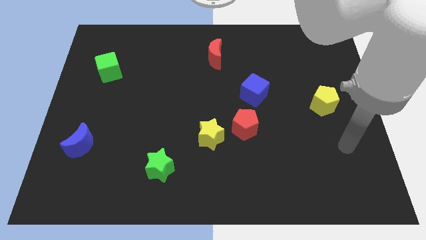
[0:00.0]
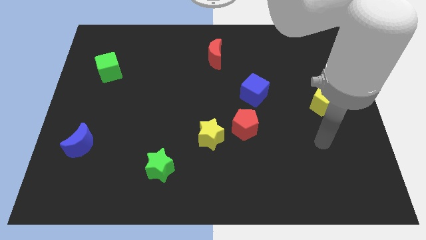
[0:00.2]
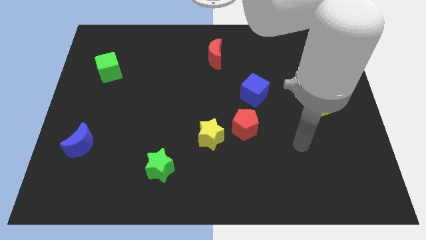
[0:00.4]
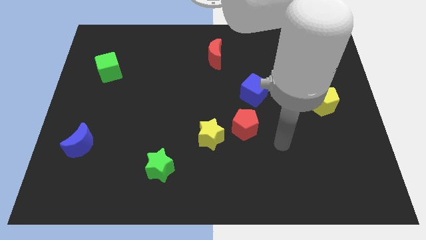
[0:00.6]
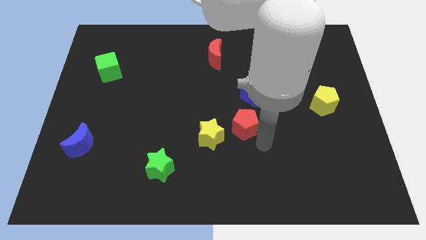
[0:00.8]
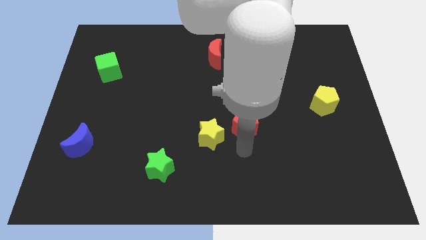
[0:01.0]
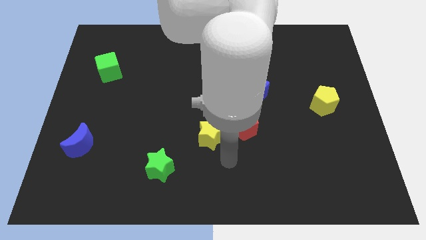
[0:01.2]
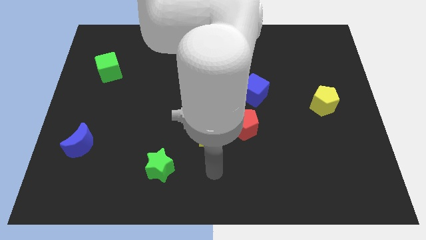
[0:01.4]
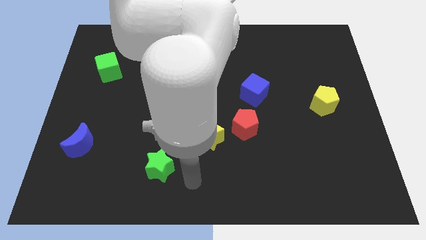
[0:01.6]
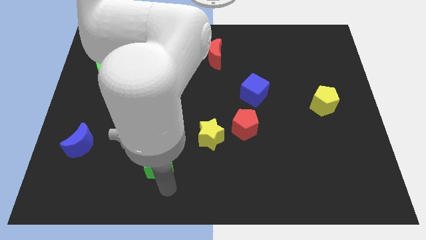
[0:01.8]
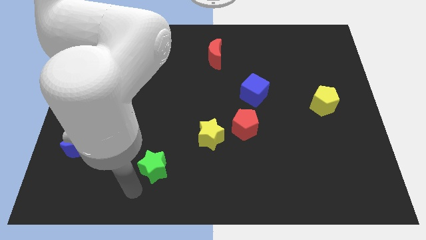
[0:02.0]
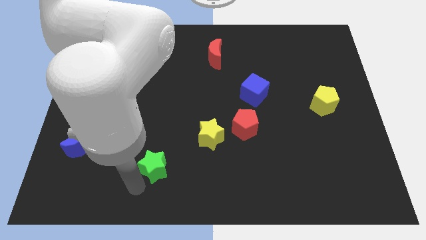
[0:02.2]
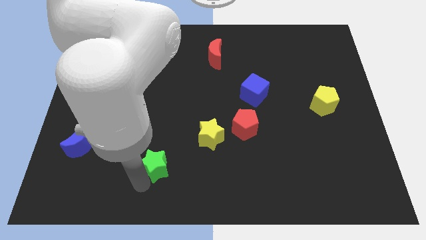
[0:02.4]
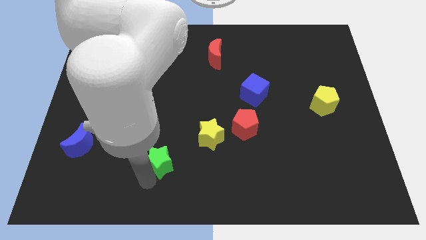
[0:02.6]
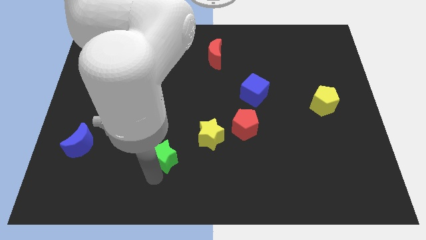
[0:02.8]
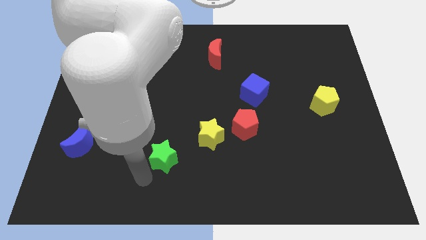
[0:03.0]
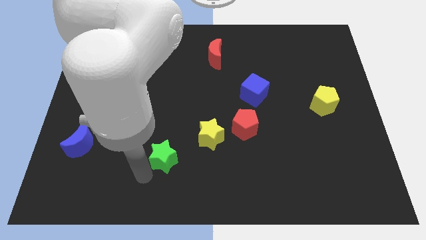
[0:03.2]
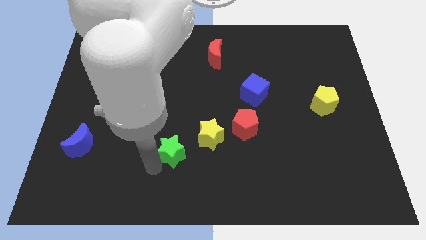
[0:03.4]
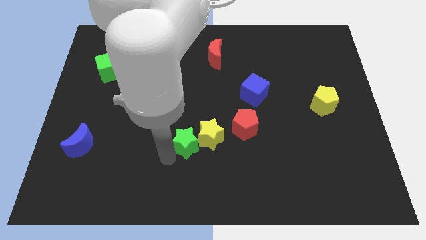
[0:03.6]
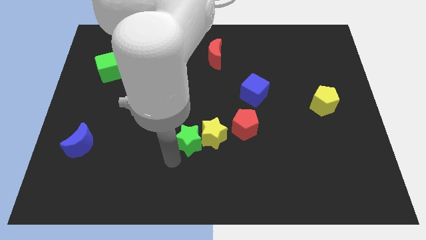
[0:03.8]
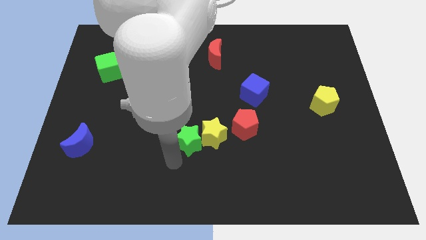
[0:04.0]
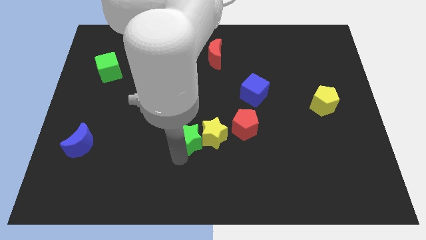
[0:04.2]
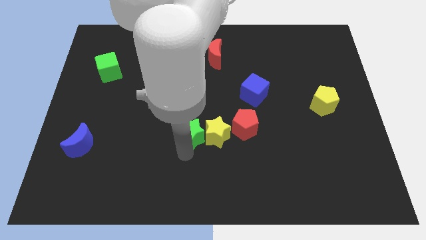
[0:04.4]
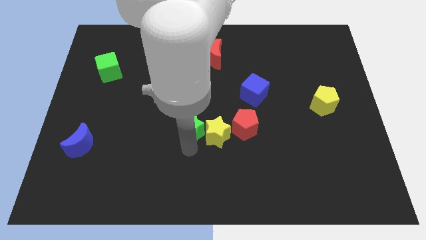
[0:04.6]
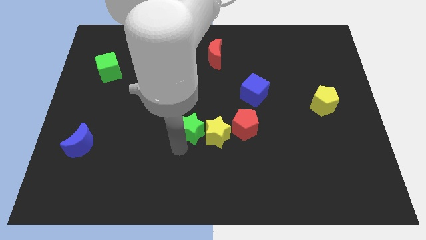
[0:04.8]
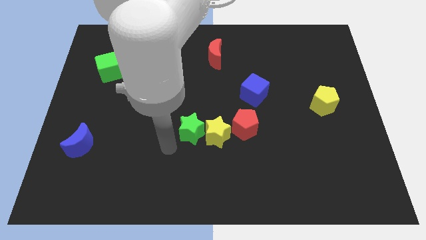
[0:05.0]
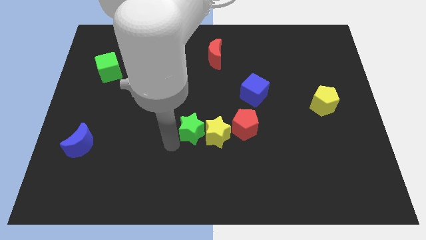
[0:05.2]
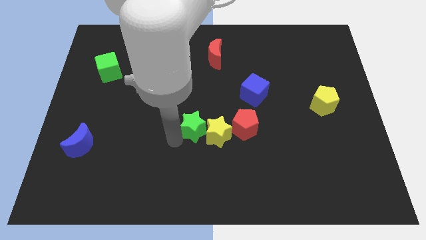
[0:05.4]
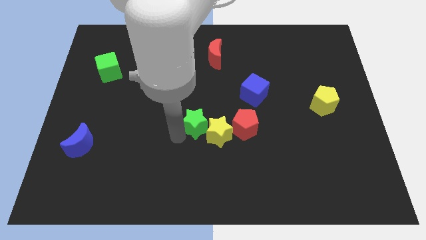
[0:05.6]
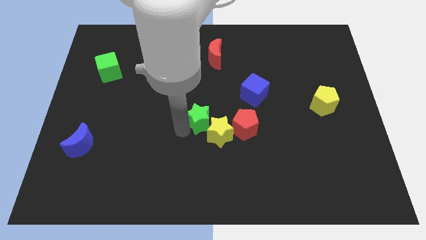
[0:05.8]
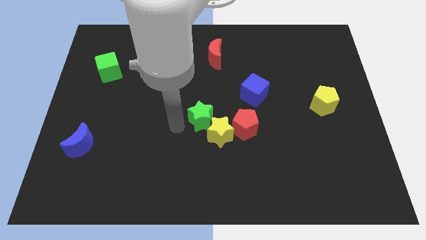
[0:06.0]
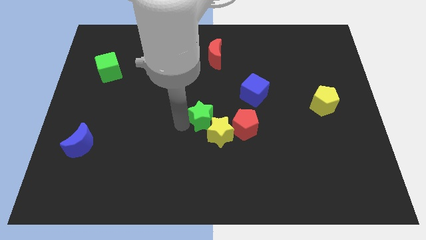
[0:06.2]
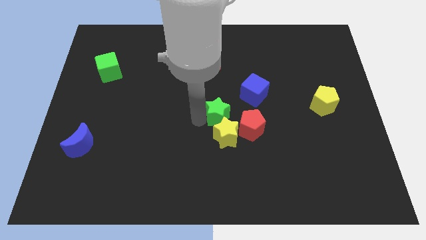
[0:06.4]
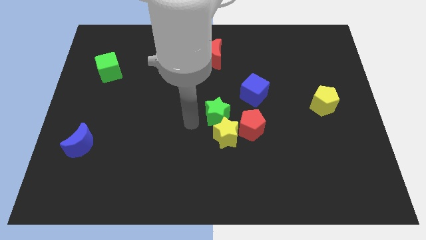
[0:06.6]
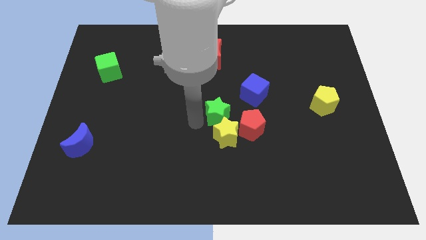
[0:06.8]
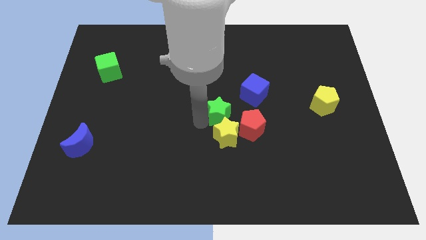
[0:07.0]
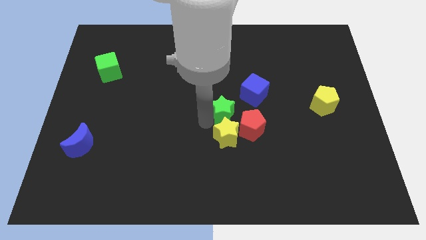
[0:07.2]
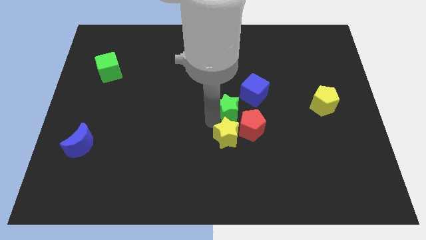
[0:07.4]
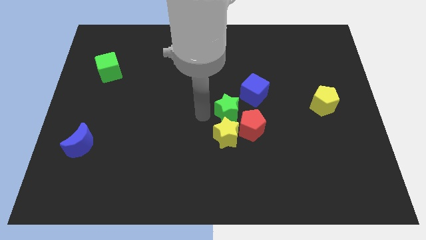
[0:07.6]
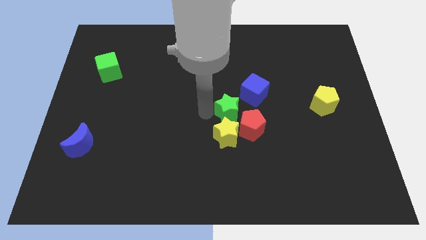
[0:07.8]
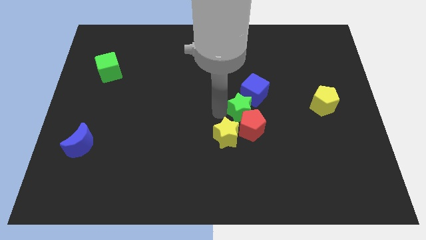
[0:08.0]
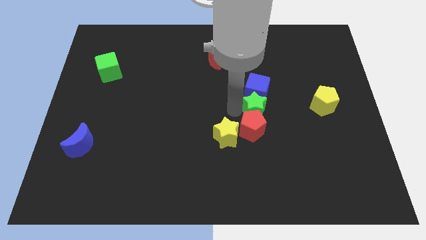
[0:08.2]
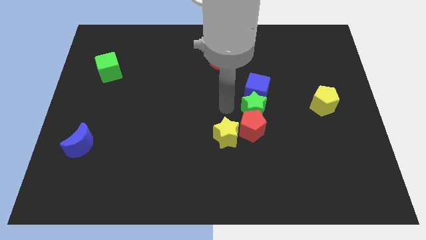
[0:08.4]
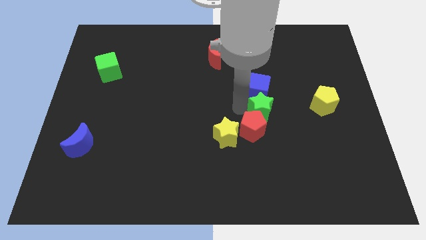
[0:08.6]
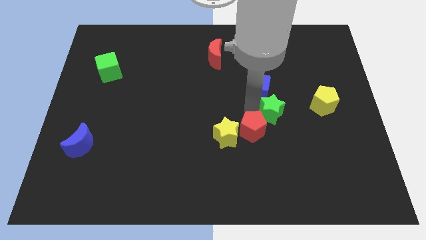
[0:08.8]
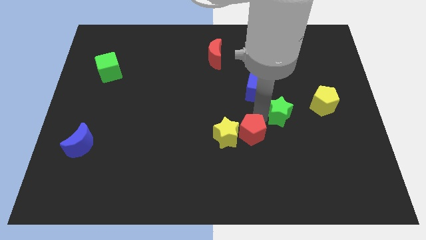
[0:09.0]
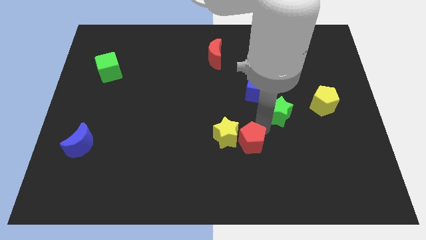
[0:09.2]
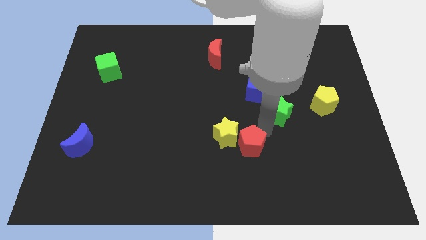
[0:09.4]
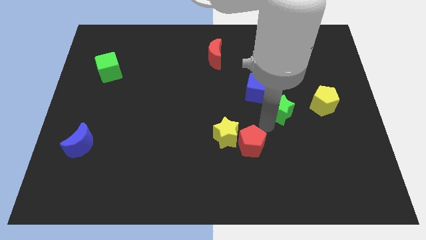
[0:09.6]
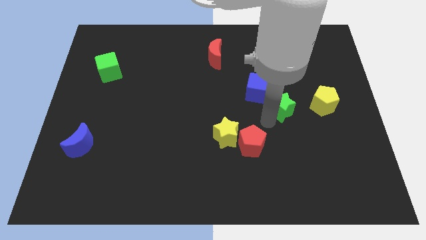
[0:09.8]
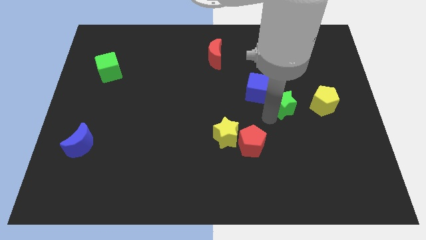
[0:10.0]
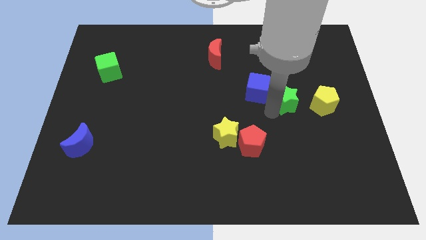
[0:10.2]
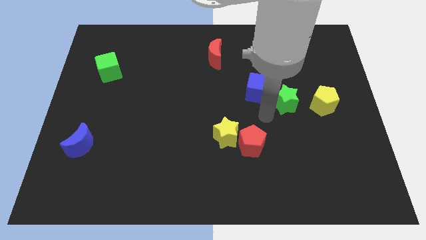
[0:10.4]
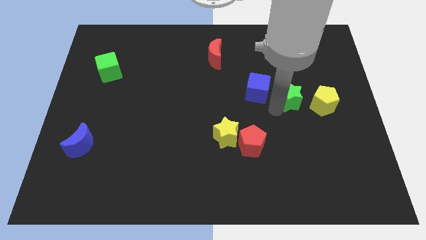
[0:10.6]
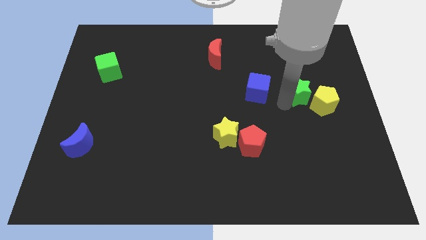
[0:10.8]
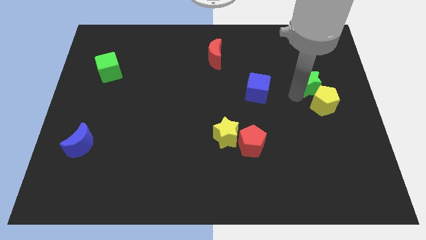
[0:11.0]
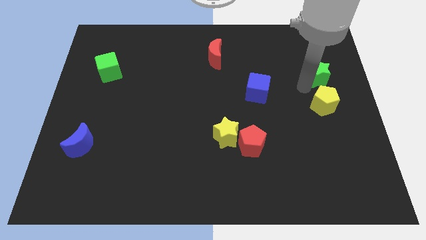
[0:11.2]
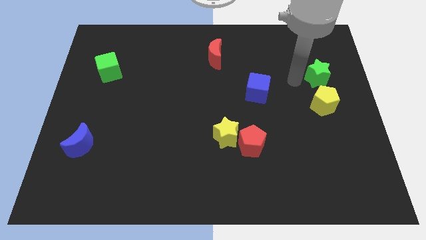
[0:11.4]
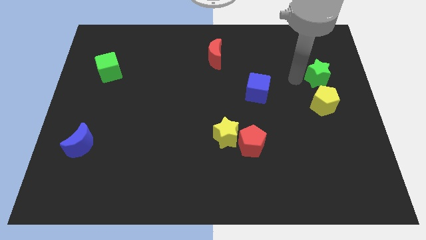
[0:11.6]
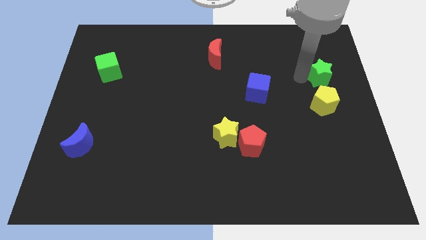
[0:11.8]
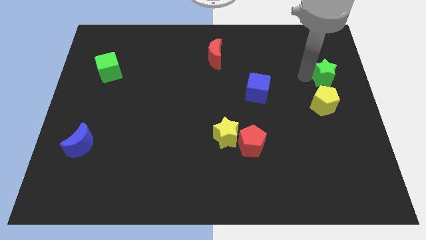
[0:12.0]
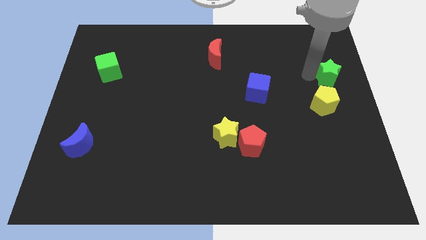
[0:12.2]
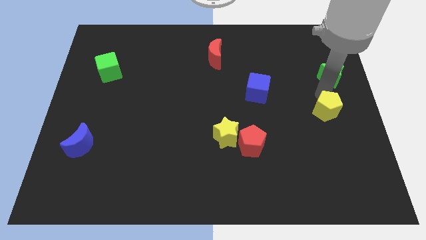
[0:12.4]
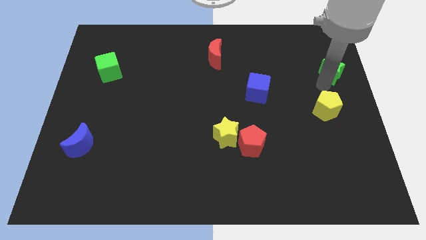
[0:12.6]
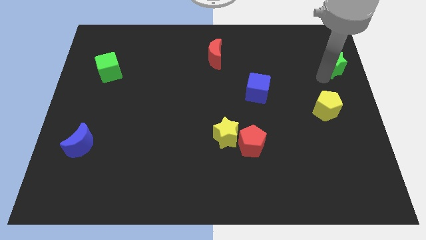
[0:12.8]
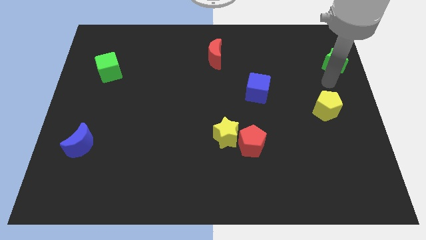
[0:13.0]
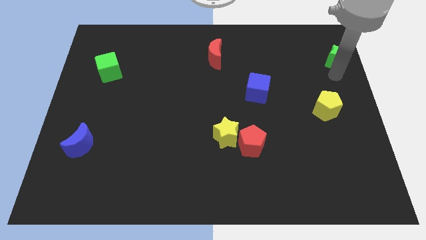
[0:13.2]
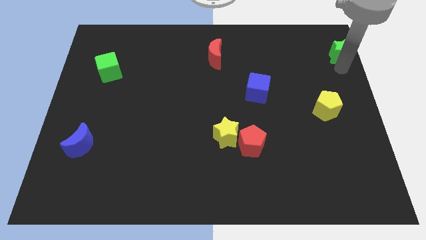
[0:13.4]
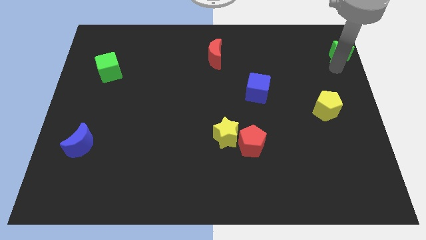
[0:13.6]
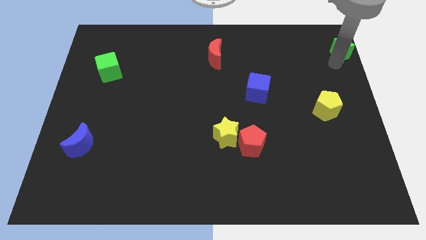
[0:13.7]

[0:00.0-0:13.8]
slide the green star to the upper right corner
